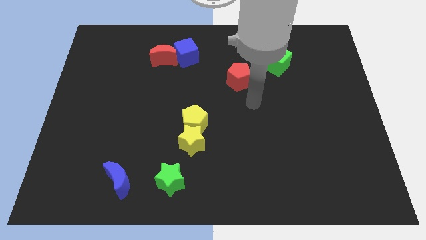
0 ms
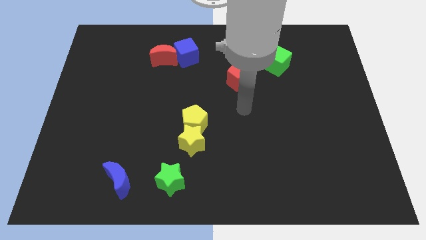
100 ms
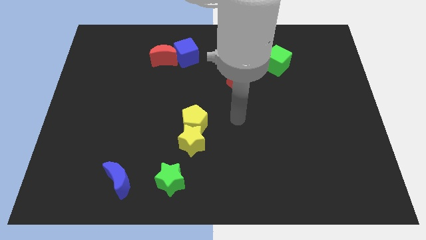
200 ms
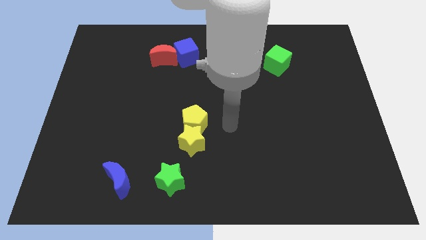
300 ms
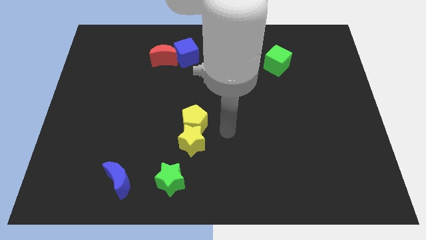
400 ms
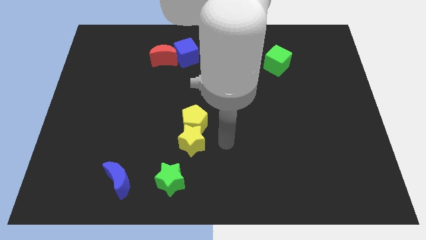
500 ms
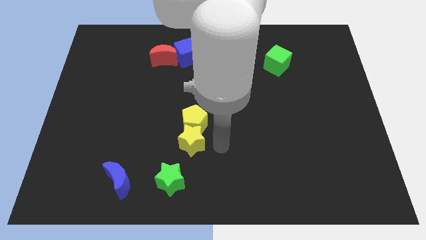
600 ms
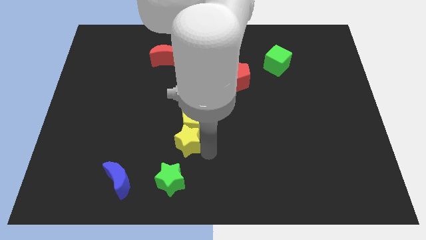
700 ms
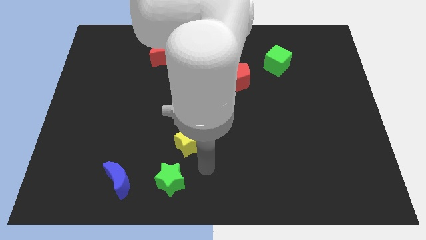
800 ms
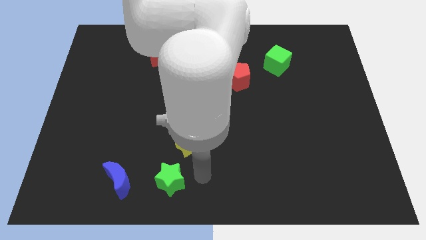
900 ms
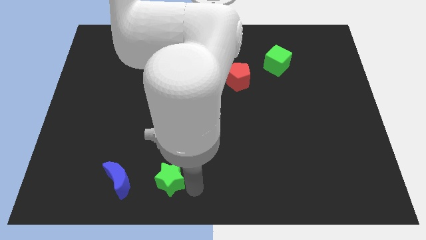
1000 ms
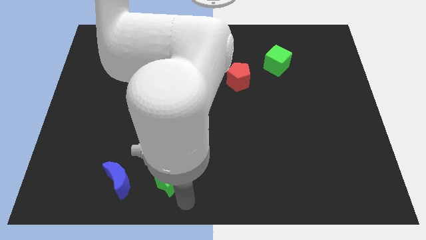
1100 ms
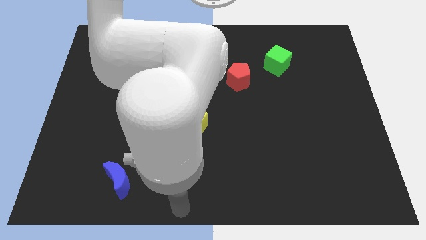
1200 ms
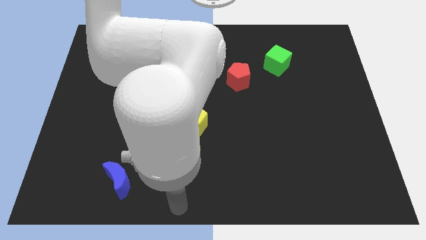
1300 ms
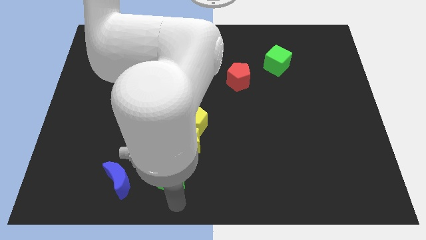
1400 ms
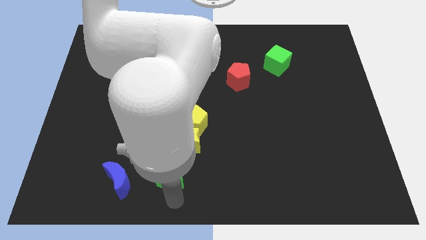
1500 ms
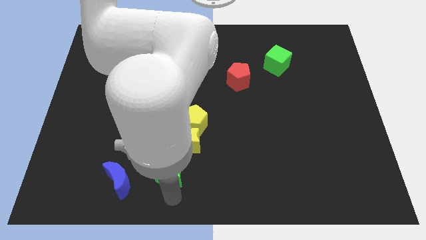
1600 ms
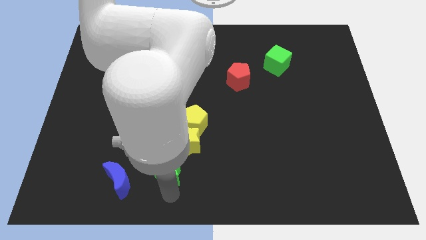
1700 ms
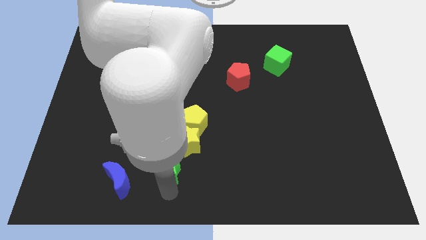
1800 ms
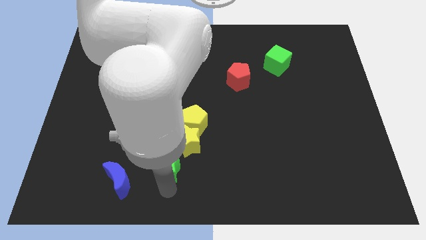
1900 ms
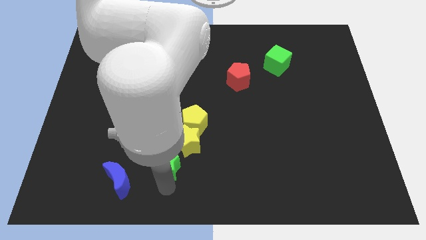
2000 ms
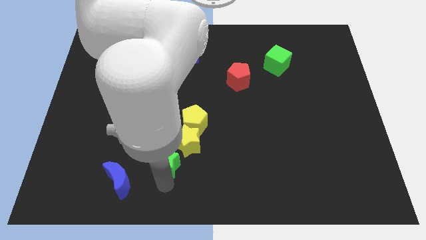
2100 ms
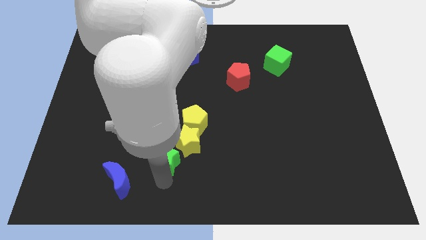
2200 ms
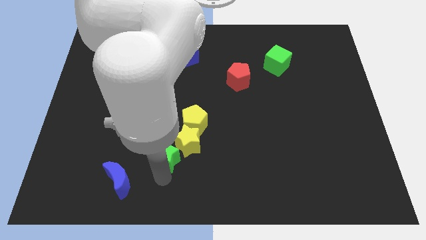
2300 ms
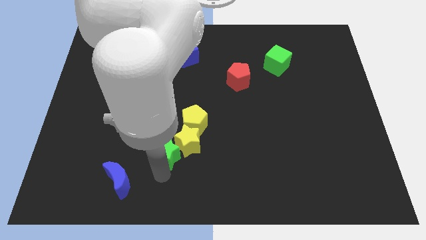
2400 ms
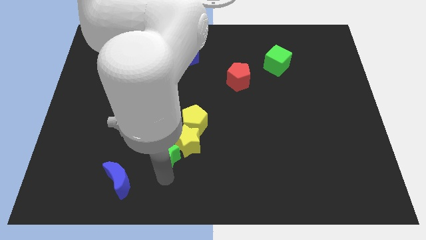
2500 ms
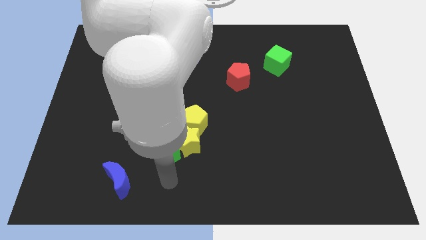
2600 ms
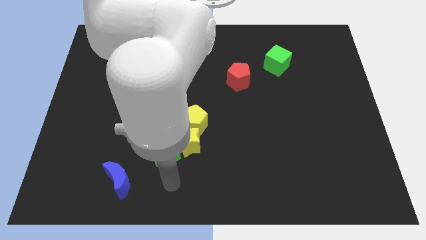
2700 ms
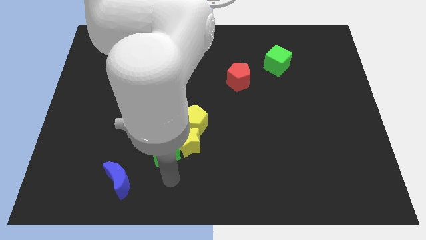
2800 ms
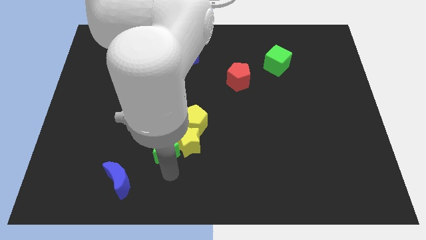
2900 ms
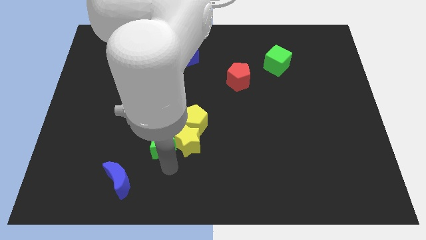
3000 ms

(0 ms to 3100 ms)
slightly push the green star upwards

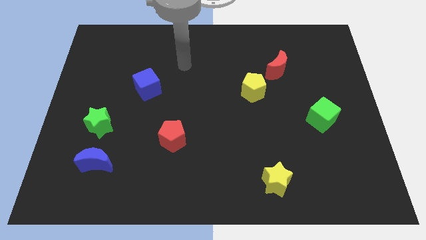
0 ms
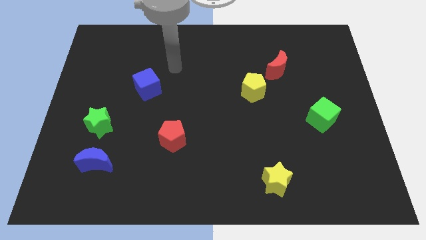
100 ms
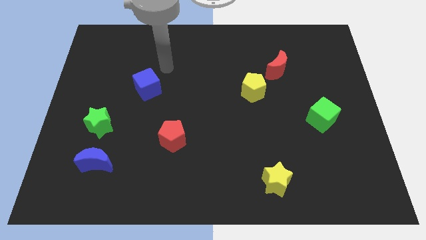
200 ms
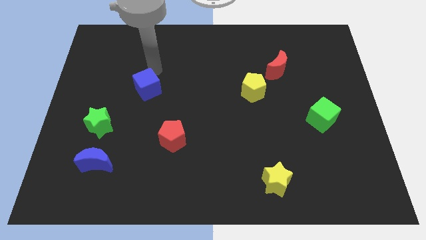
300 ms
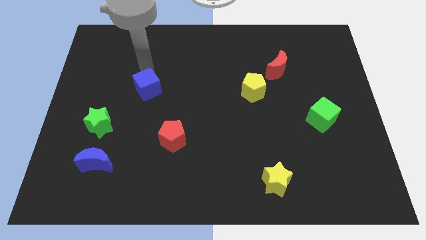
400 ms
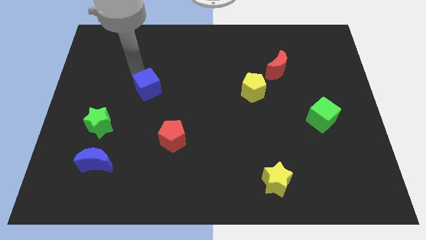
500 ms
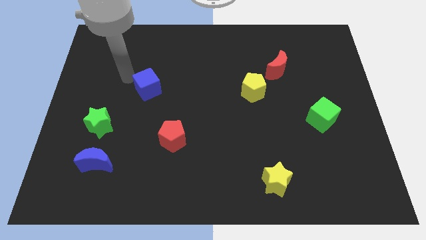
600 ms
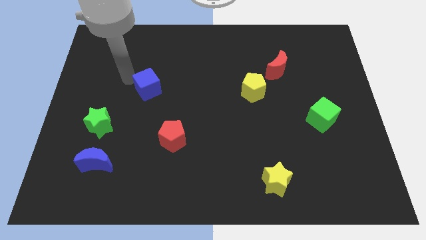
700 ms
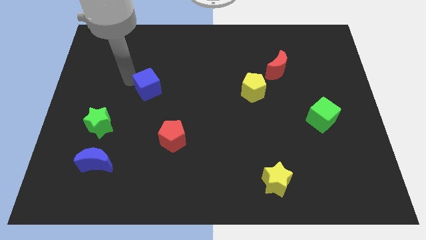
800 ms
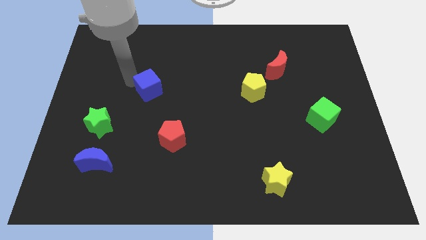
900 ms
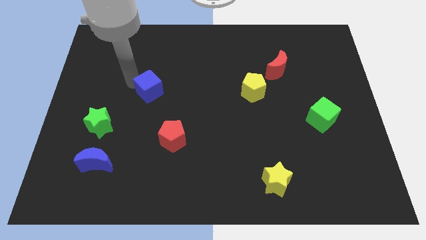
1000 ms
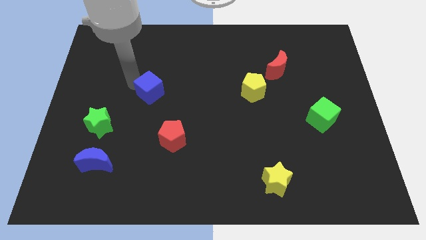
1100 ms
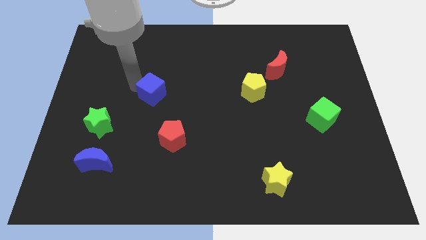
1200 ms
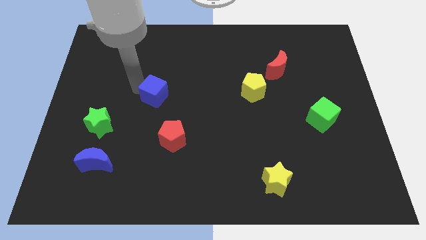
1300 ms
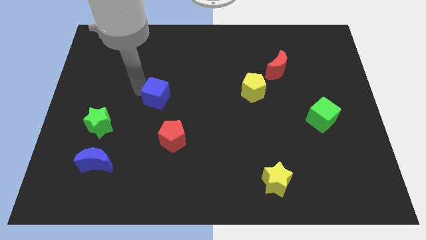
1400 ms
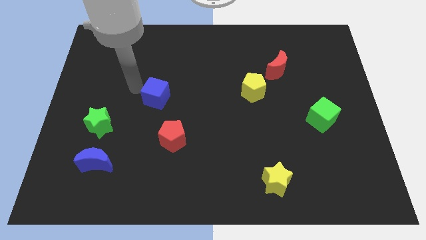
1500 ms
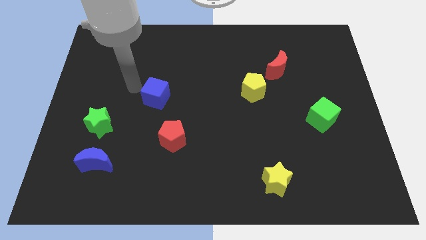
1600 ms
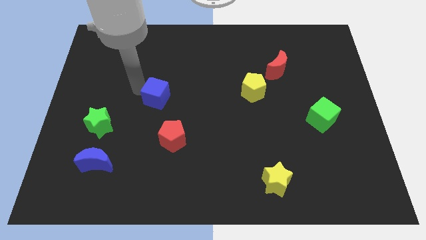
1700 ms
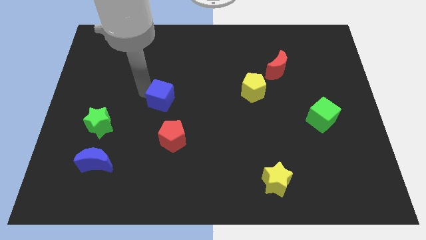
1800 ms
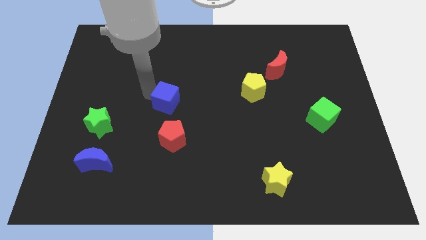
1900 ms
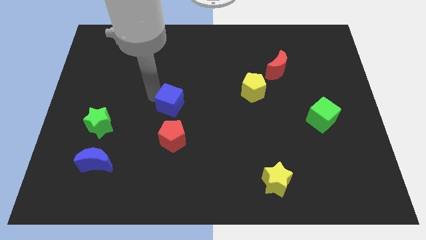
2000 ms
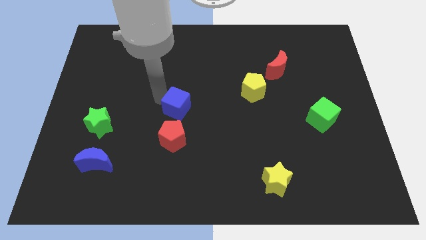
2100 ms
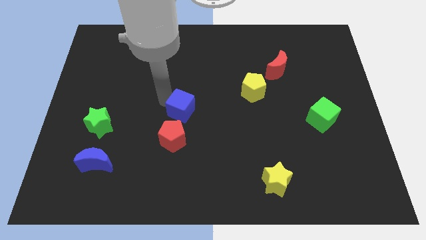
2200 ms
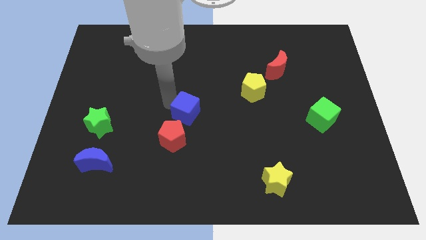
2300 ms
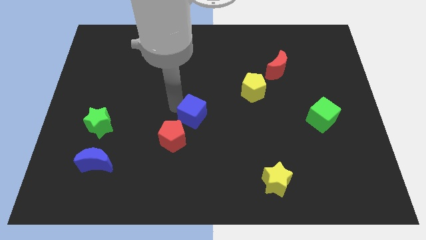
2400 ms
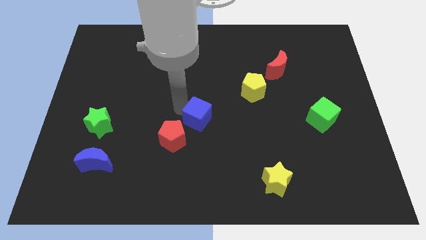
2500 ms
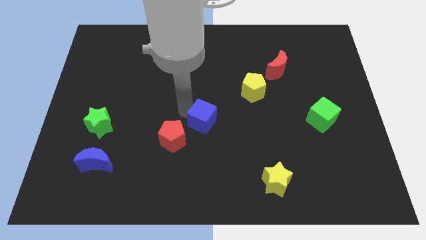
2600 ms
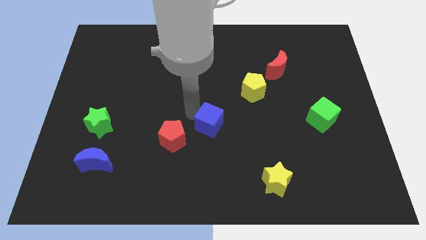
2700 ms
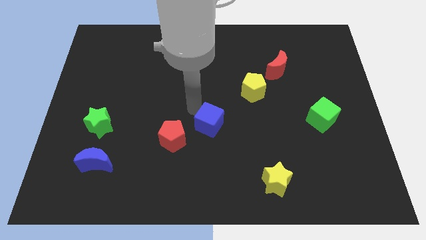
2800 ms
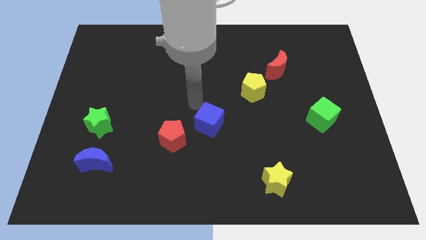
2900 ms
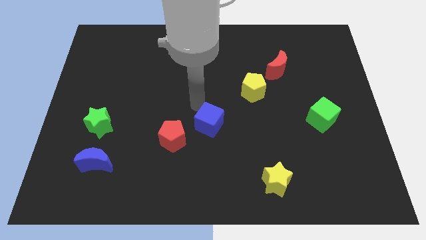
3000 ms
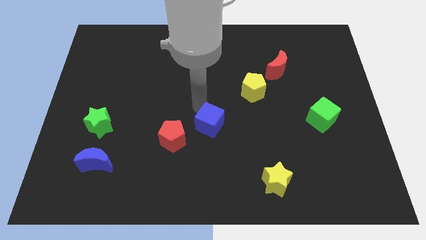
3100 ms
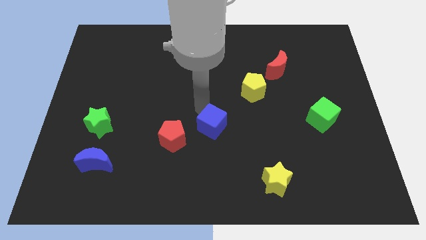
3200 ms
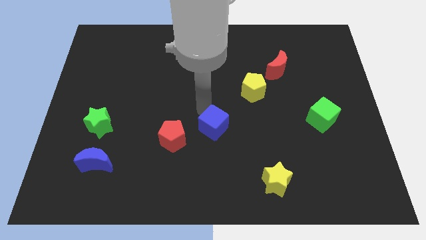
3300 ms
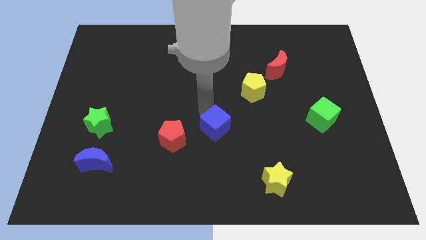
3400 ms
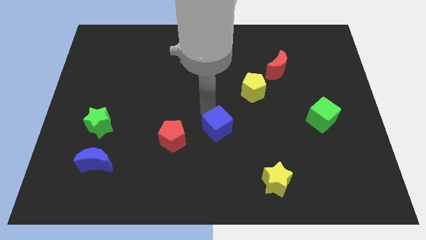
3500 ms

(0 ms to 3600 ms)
push the blue cube diagonally downwards and right

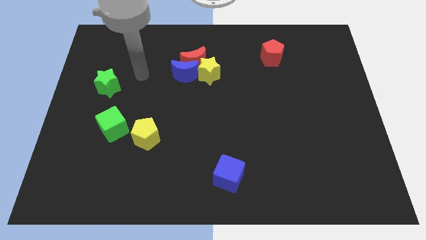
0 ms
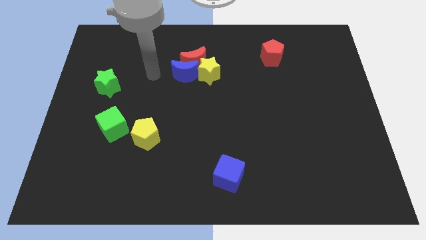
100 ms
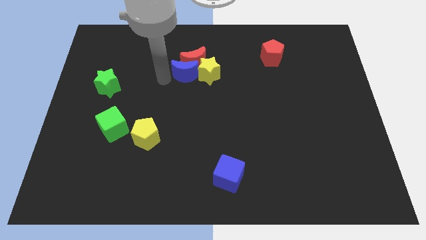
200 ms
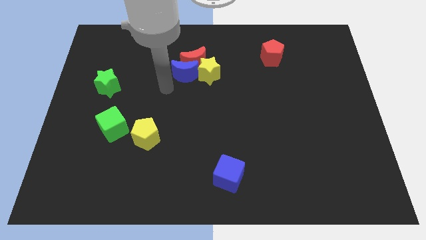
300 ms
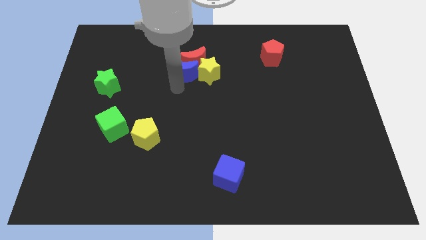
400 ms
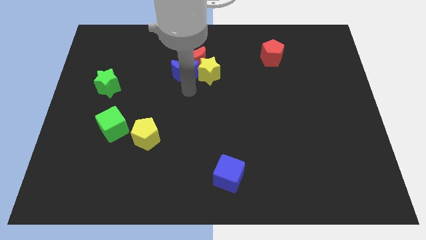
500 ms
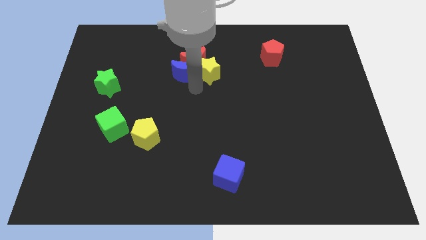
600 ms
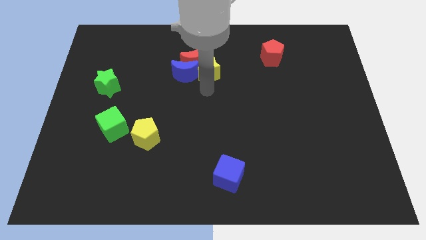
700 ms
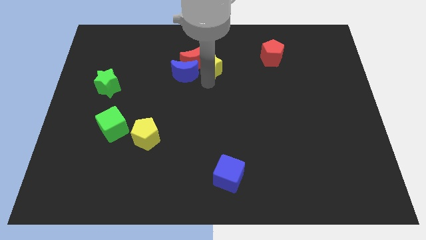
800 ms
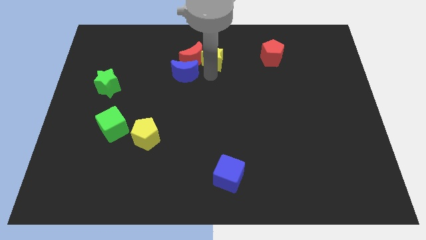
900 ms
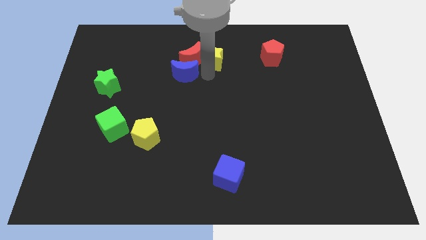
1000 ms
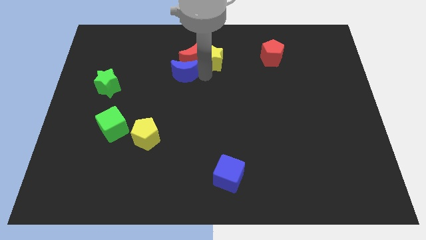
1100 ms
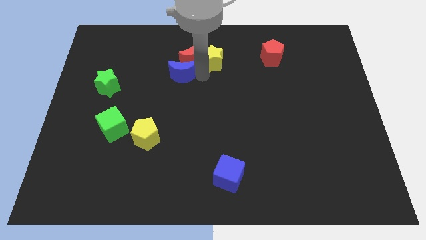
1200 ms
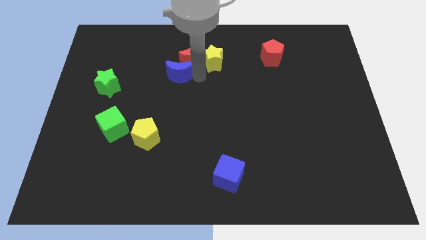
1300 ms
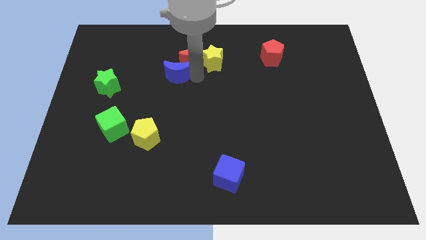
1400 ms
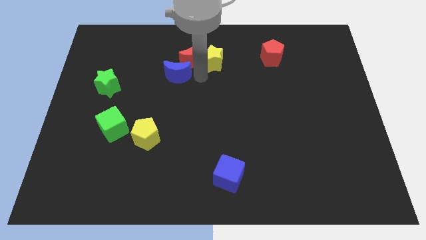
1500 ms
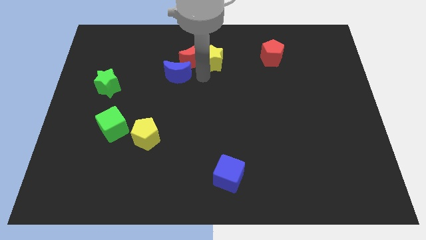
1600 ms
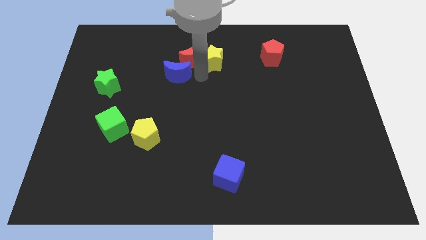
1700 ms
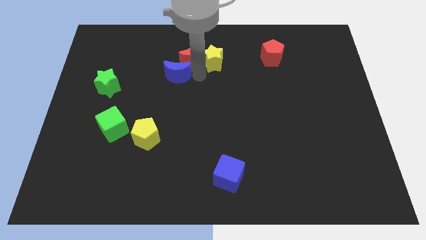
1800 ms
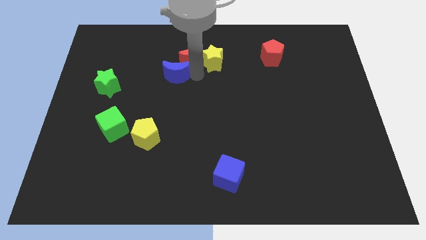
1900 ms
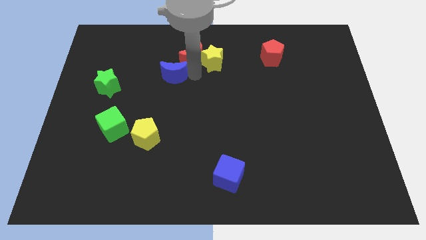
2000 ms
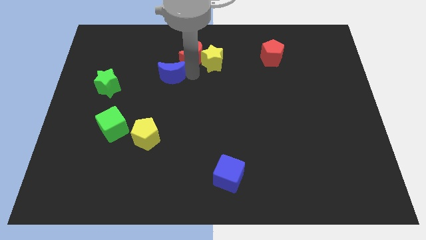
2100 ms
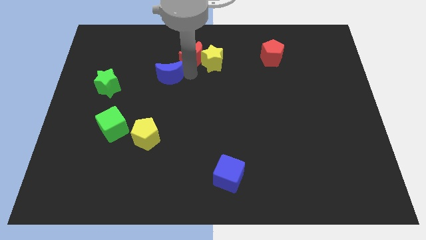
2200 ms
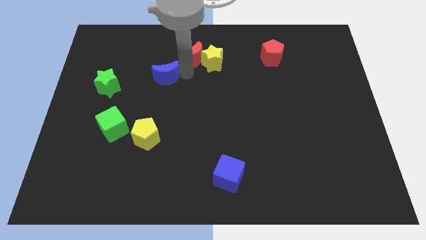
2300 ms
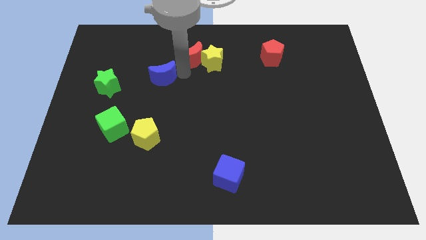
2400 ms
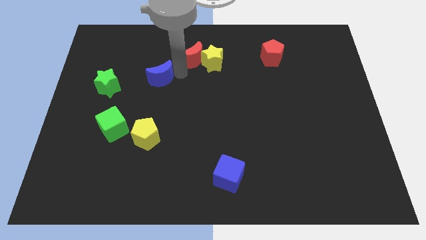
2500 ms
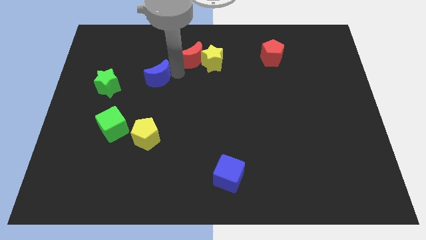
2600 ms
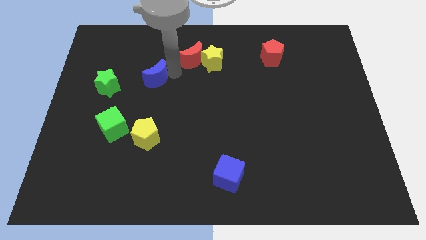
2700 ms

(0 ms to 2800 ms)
slightly push the blue moon to the left
